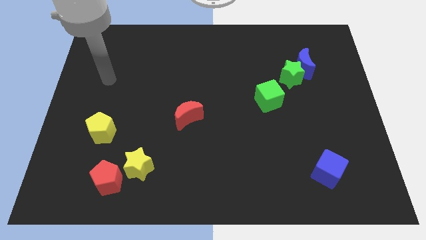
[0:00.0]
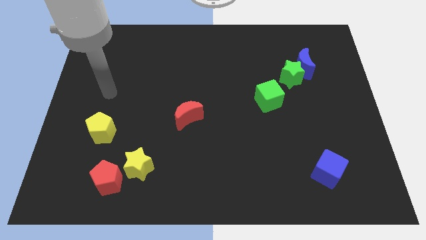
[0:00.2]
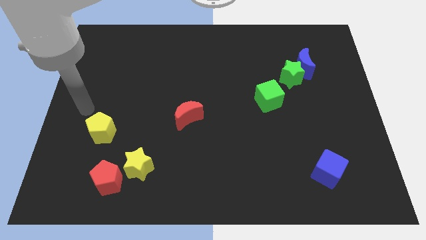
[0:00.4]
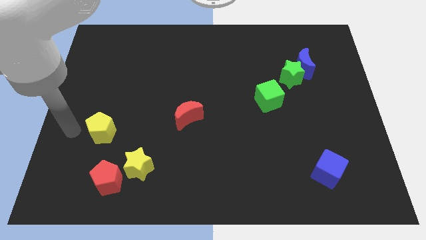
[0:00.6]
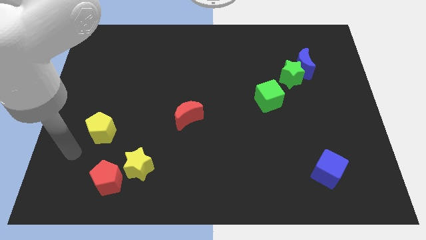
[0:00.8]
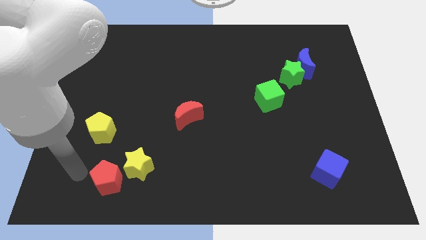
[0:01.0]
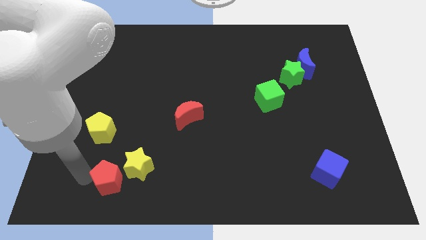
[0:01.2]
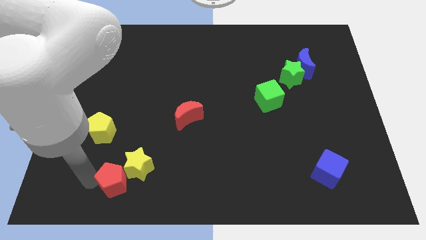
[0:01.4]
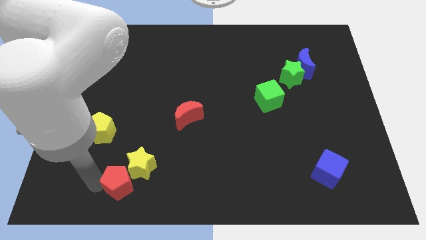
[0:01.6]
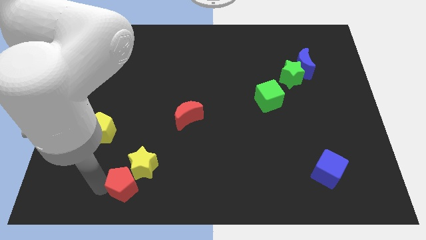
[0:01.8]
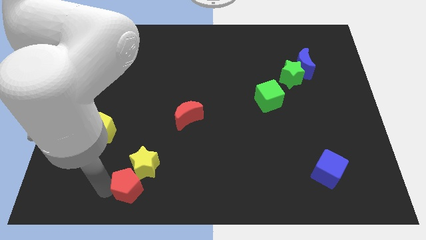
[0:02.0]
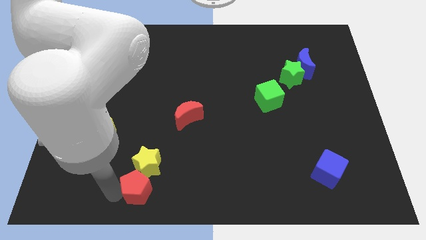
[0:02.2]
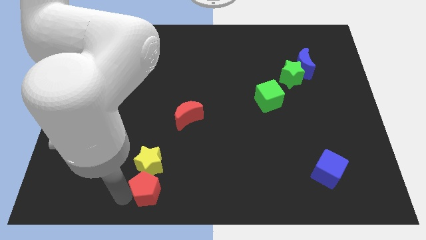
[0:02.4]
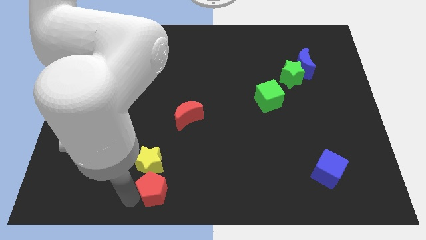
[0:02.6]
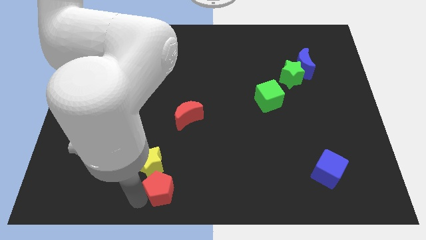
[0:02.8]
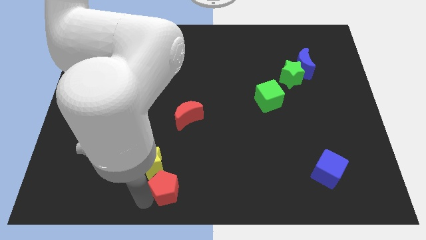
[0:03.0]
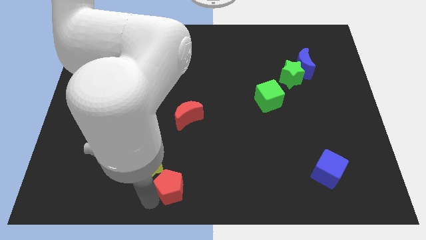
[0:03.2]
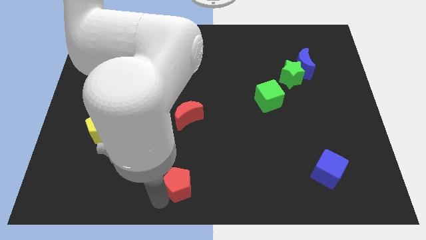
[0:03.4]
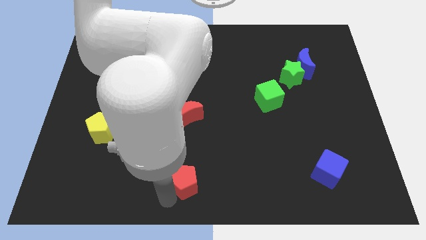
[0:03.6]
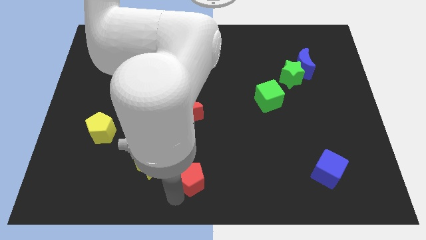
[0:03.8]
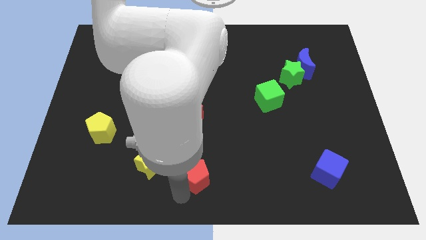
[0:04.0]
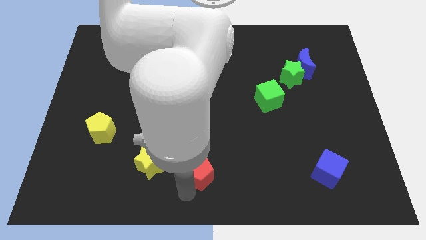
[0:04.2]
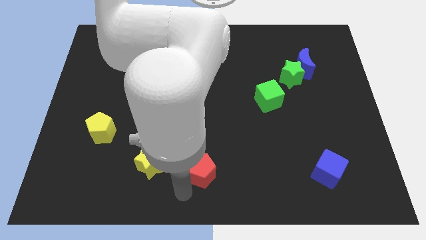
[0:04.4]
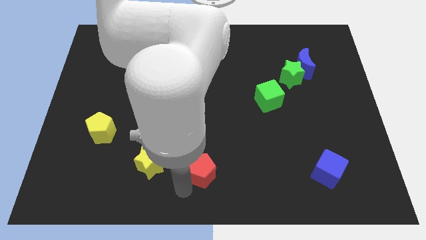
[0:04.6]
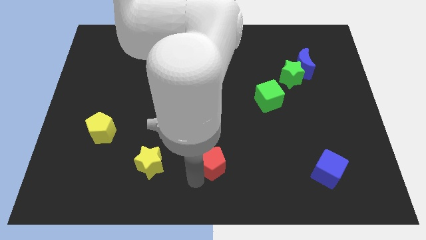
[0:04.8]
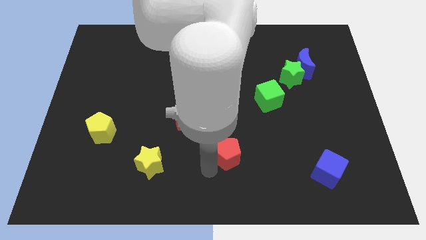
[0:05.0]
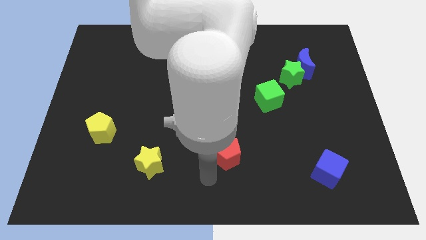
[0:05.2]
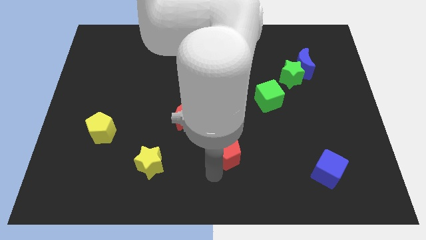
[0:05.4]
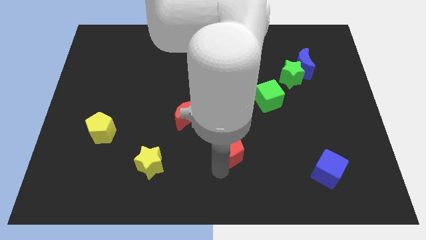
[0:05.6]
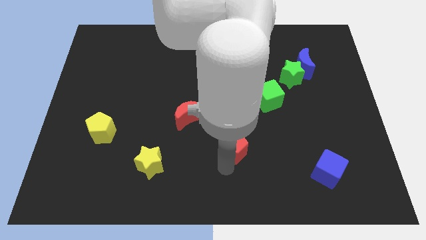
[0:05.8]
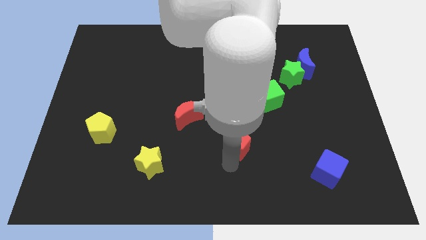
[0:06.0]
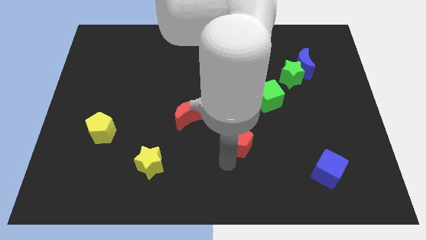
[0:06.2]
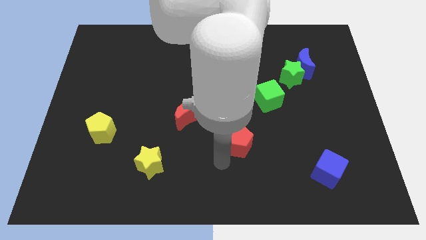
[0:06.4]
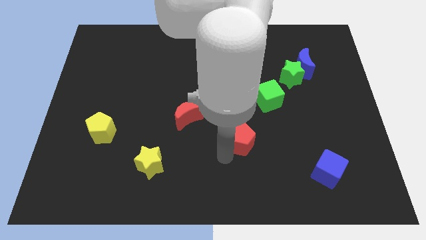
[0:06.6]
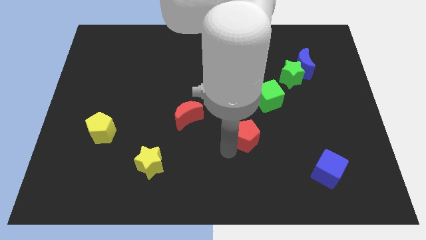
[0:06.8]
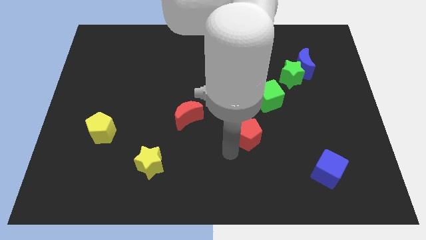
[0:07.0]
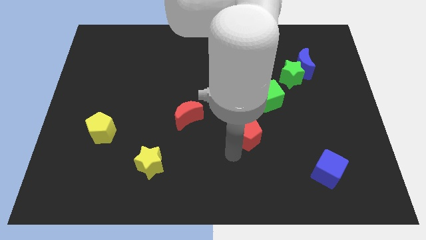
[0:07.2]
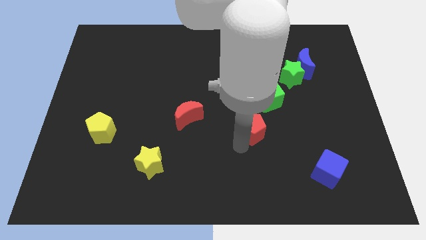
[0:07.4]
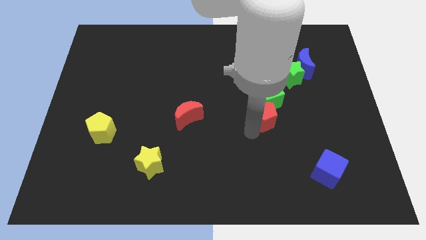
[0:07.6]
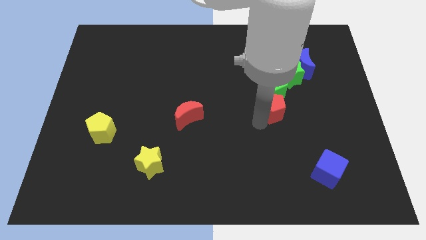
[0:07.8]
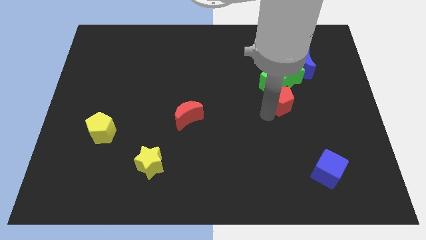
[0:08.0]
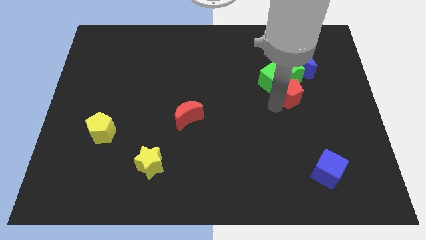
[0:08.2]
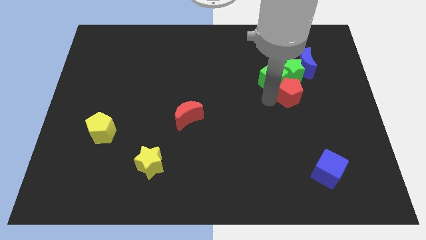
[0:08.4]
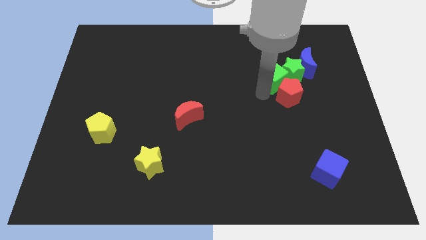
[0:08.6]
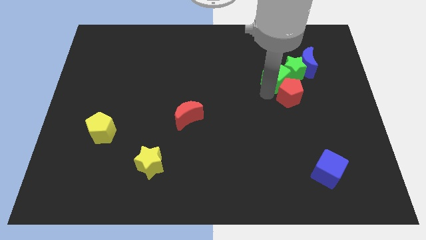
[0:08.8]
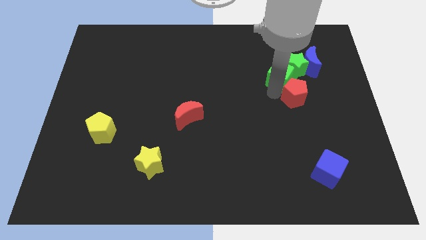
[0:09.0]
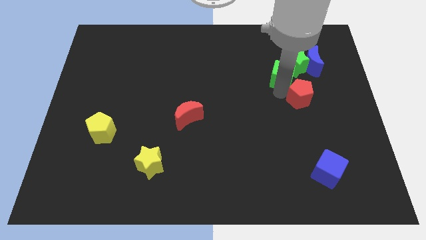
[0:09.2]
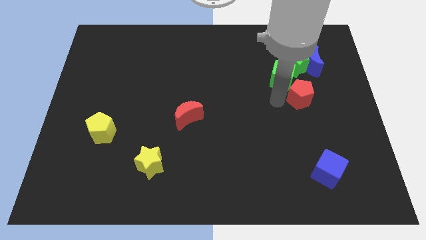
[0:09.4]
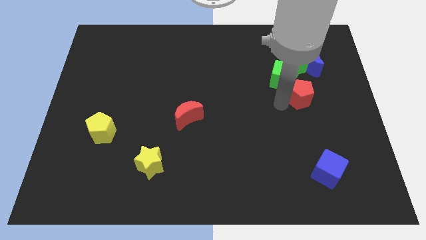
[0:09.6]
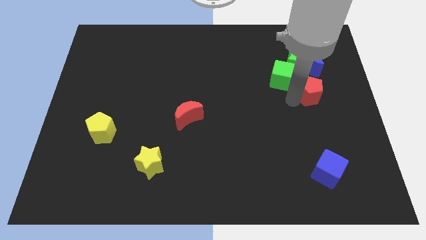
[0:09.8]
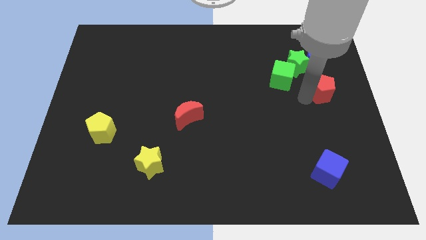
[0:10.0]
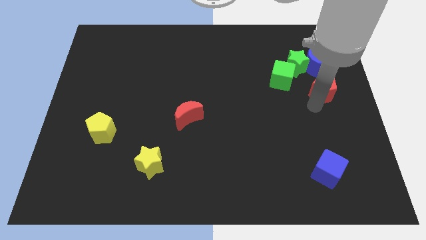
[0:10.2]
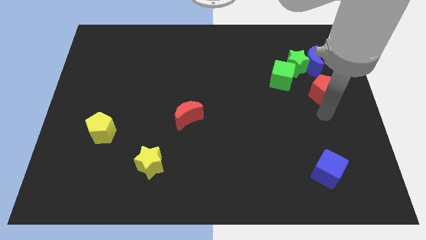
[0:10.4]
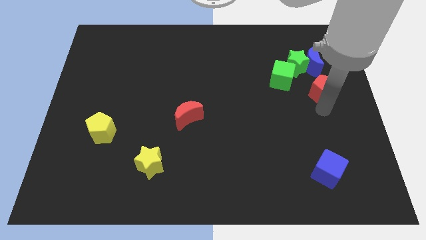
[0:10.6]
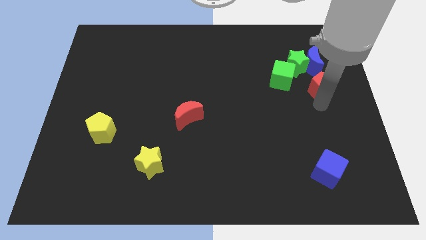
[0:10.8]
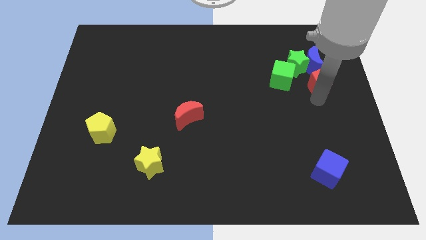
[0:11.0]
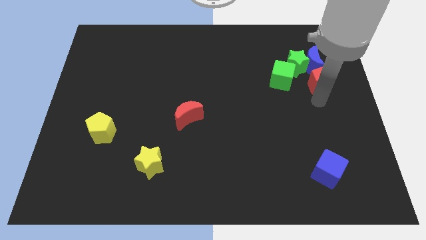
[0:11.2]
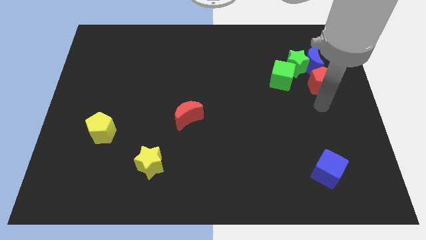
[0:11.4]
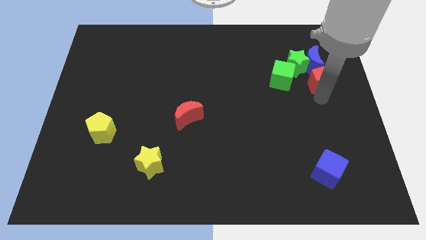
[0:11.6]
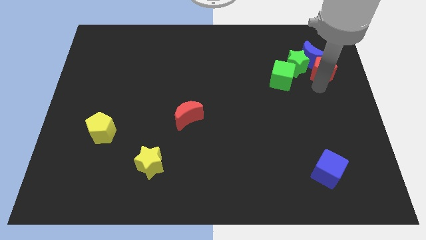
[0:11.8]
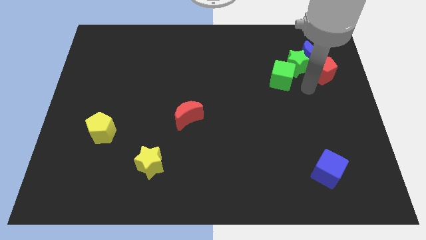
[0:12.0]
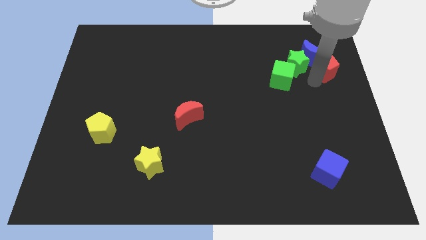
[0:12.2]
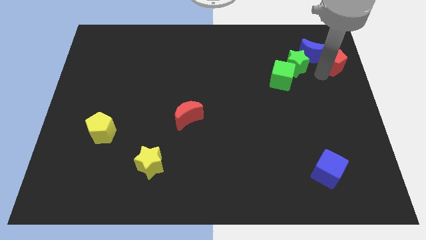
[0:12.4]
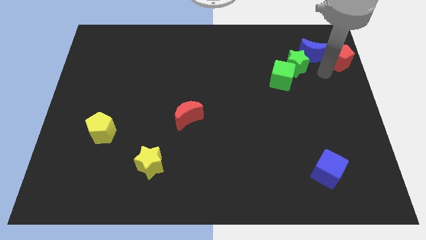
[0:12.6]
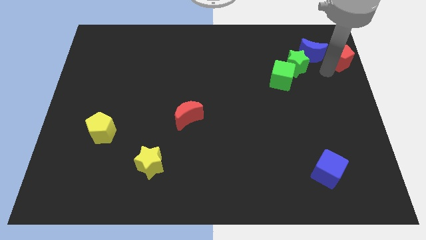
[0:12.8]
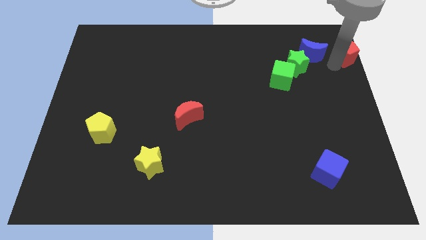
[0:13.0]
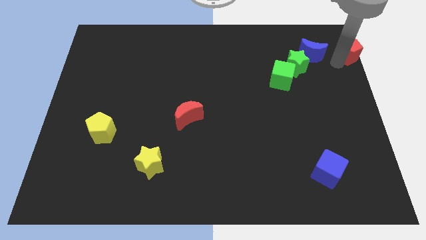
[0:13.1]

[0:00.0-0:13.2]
move the red pentagon to the top right corner

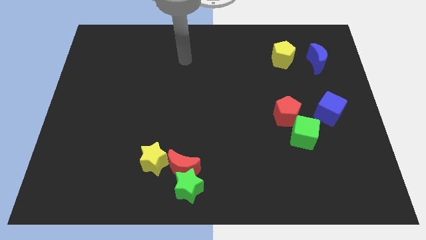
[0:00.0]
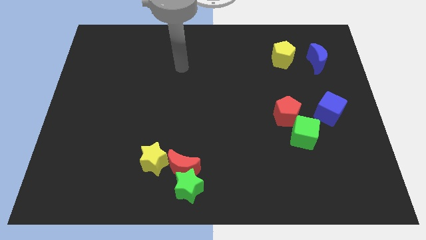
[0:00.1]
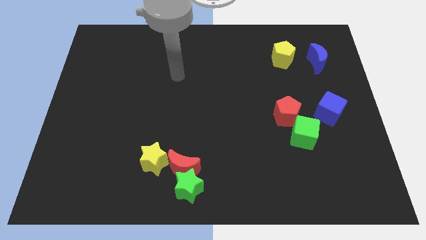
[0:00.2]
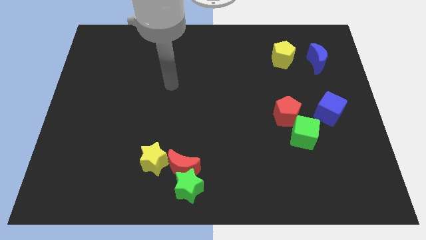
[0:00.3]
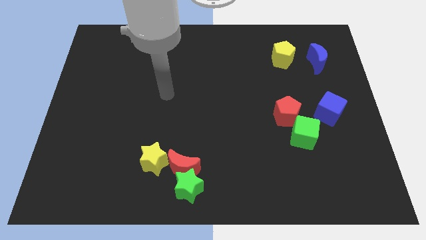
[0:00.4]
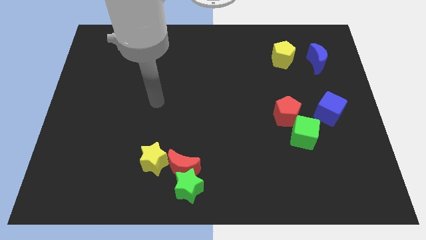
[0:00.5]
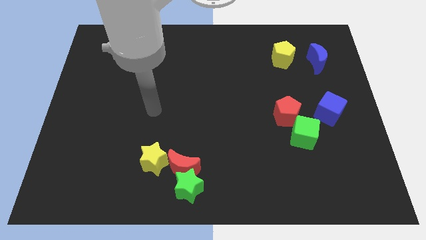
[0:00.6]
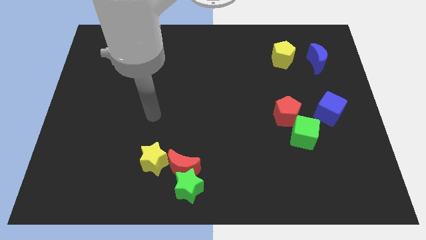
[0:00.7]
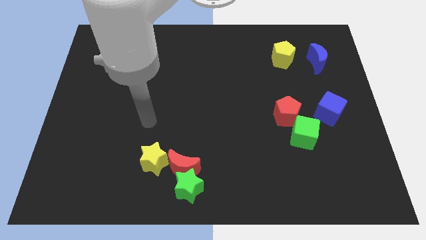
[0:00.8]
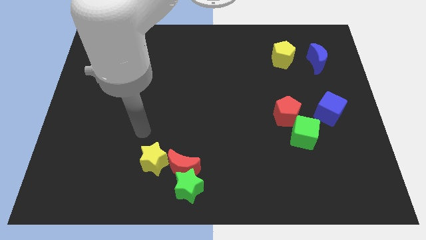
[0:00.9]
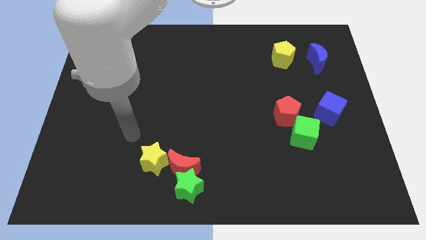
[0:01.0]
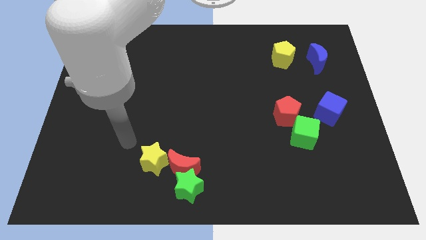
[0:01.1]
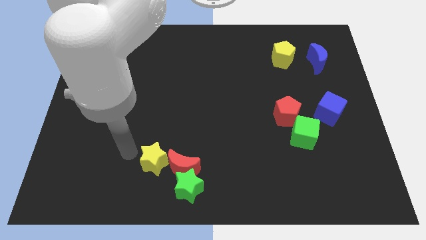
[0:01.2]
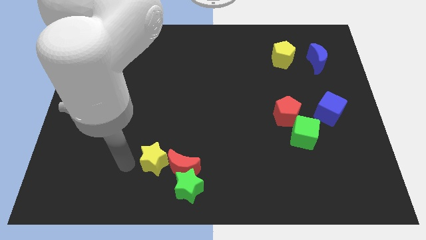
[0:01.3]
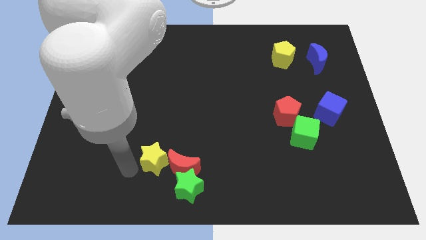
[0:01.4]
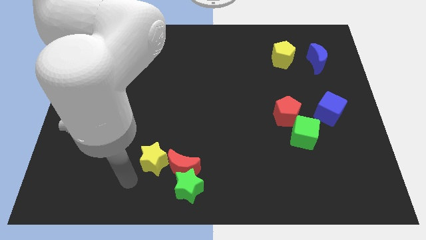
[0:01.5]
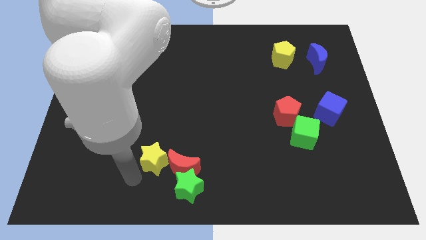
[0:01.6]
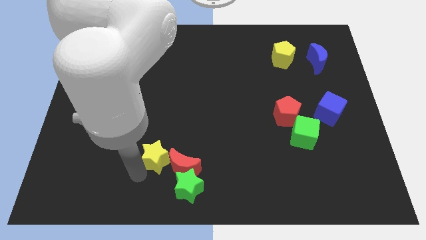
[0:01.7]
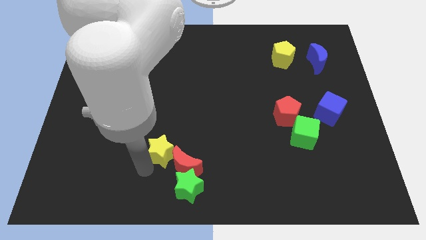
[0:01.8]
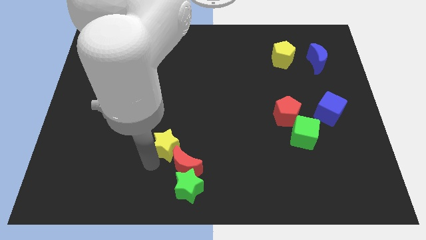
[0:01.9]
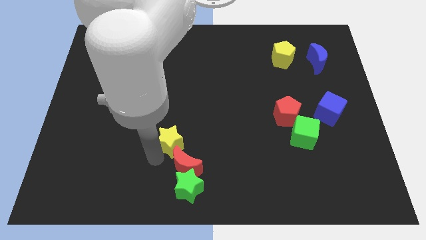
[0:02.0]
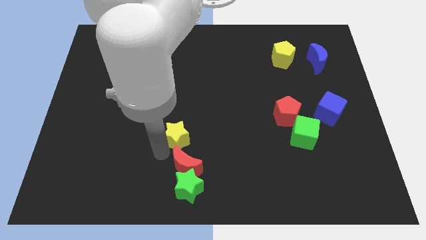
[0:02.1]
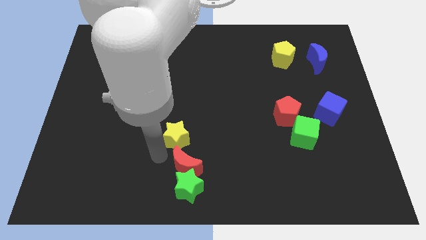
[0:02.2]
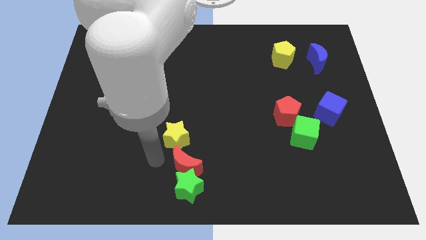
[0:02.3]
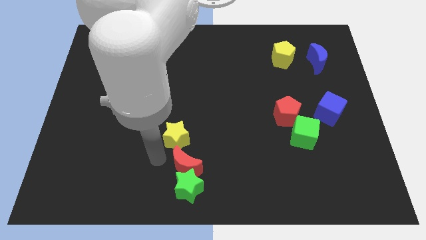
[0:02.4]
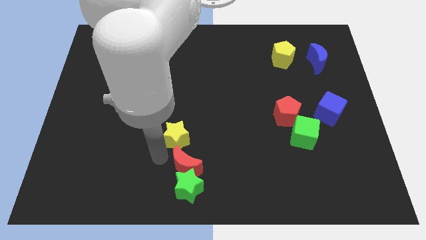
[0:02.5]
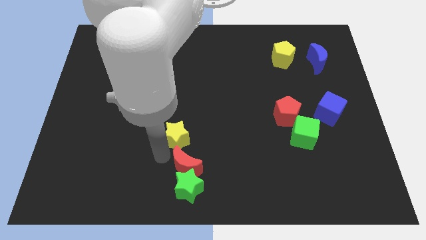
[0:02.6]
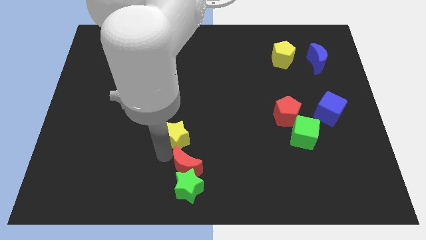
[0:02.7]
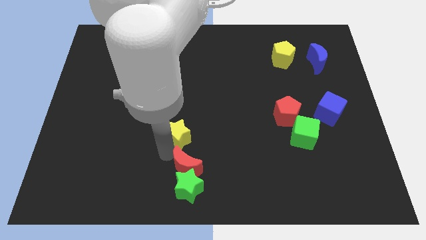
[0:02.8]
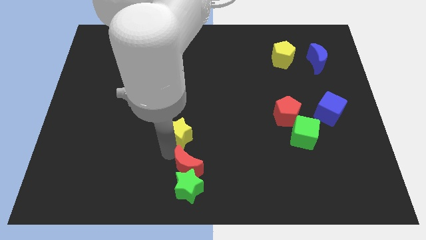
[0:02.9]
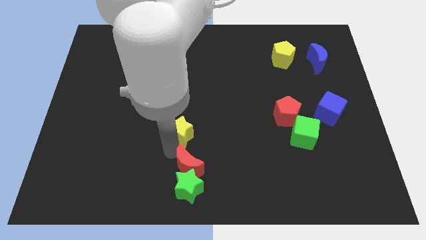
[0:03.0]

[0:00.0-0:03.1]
slide the yellow star to the middle of the board
